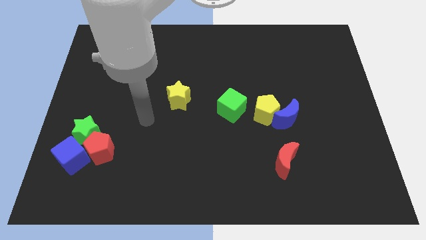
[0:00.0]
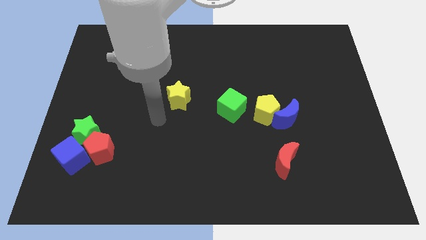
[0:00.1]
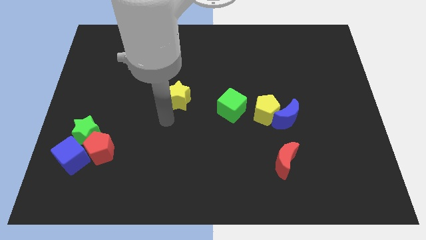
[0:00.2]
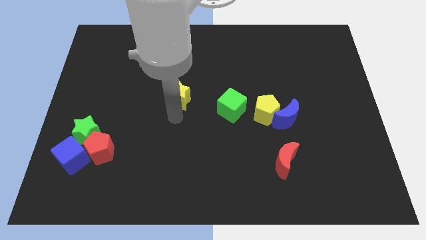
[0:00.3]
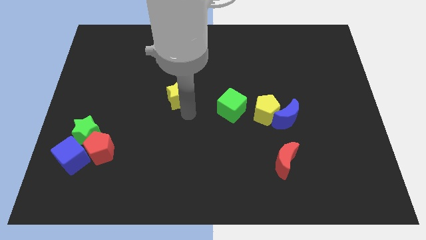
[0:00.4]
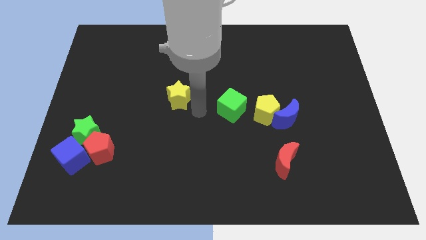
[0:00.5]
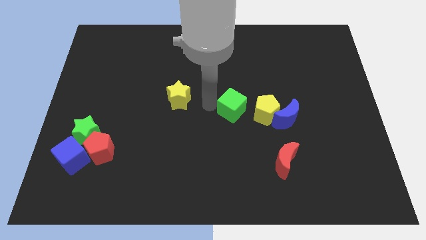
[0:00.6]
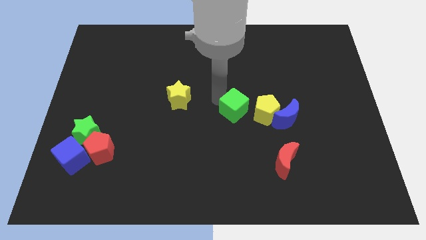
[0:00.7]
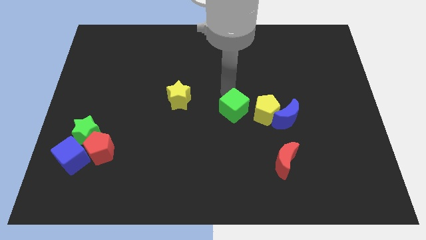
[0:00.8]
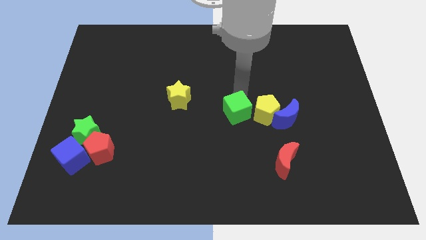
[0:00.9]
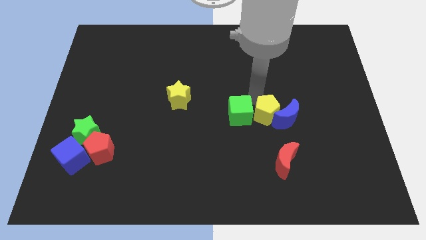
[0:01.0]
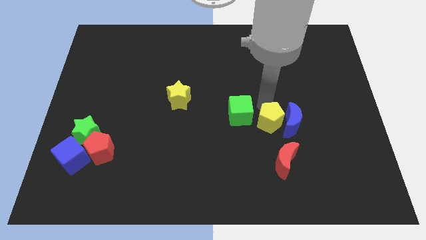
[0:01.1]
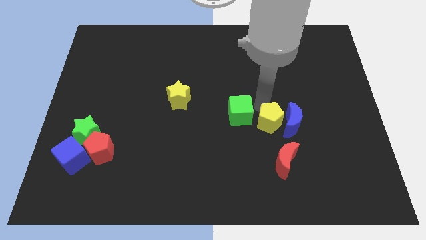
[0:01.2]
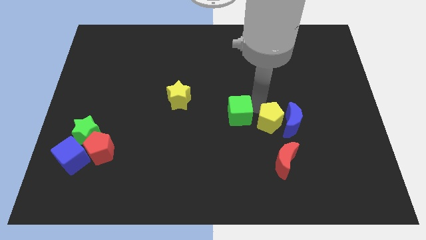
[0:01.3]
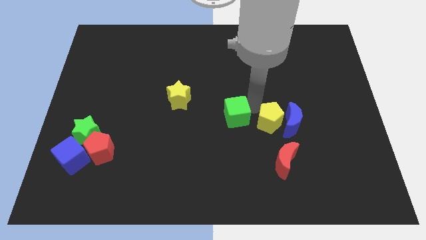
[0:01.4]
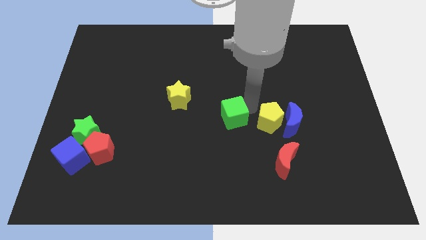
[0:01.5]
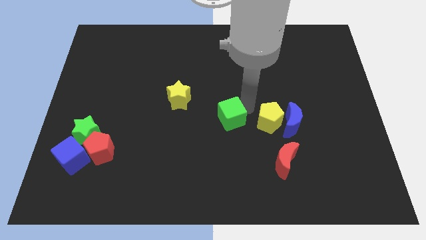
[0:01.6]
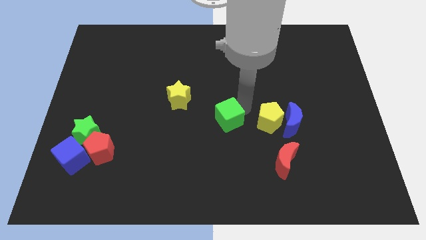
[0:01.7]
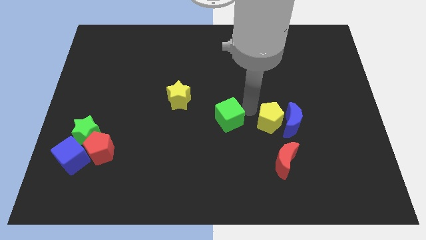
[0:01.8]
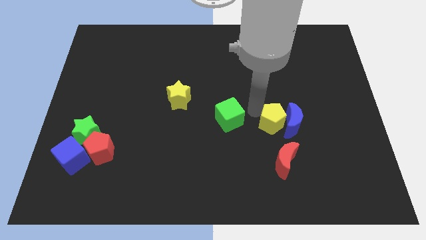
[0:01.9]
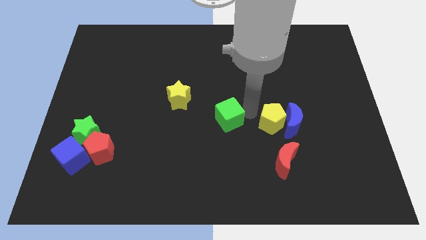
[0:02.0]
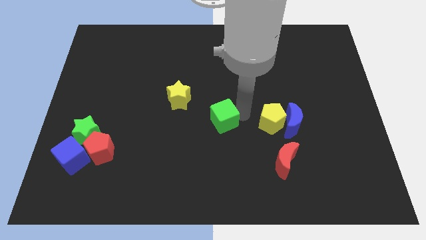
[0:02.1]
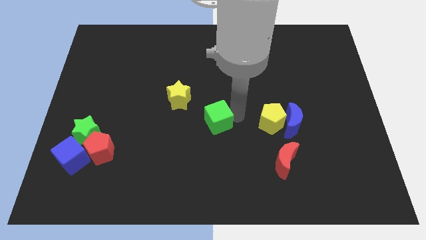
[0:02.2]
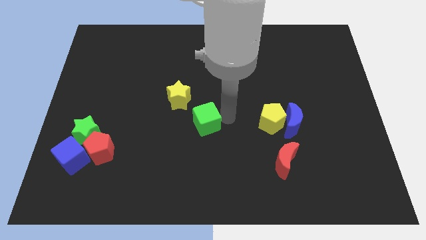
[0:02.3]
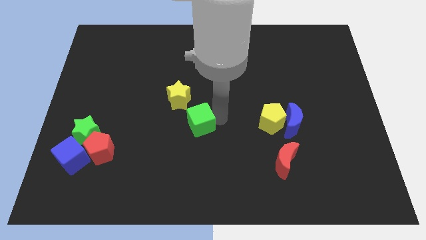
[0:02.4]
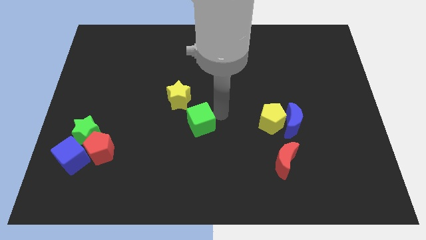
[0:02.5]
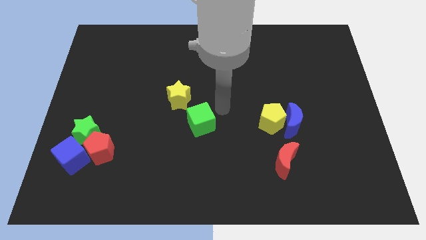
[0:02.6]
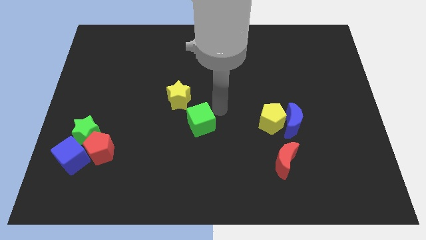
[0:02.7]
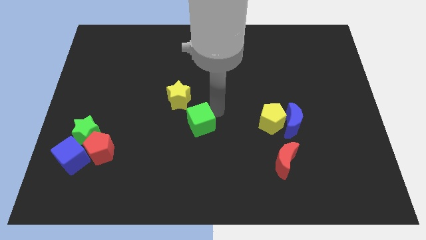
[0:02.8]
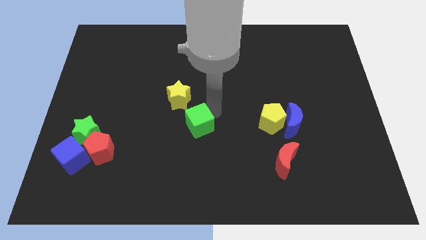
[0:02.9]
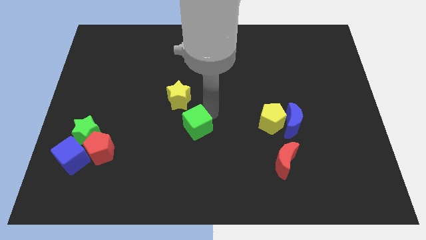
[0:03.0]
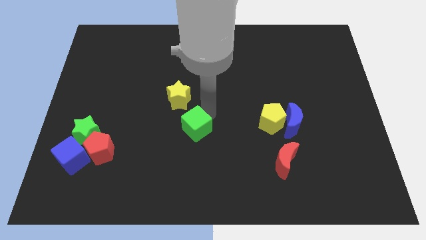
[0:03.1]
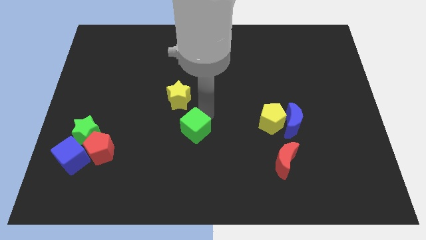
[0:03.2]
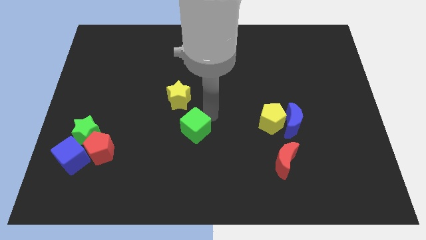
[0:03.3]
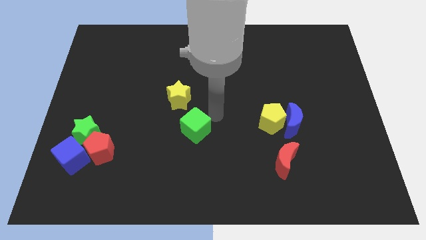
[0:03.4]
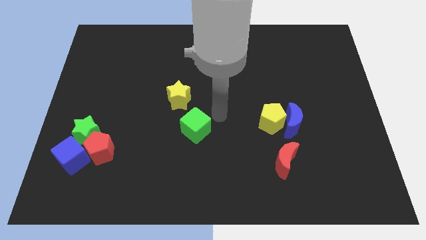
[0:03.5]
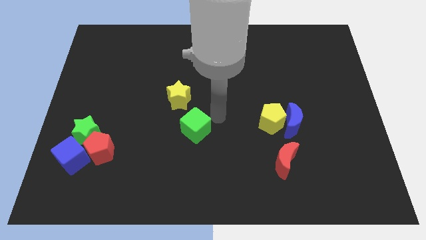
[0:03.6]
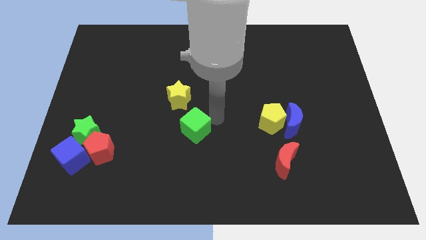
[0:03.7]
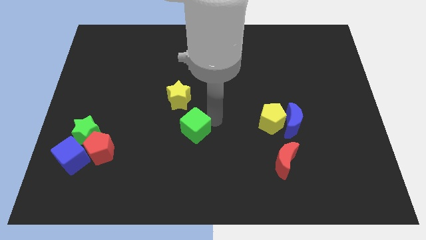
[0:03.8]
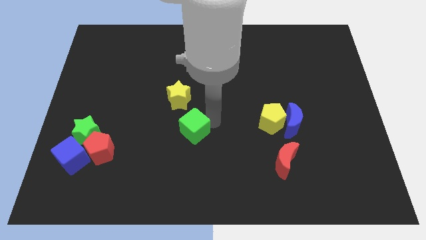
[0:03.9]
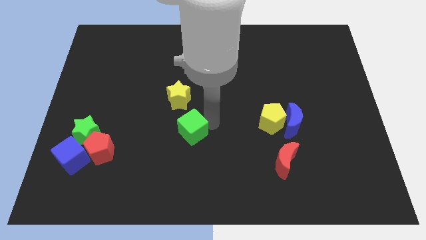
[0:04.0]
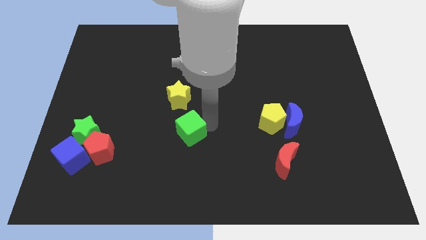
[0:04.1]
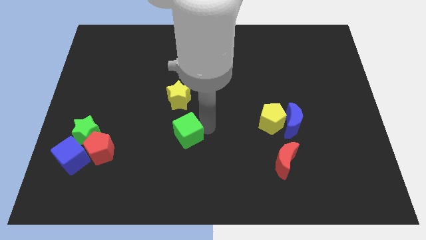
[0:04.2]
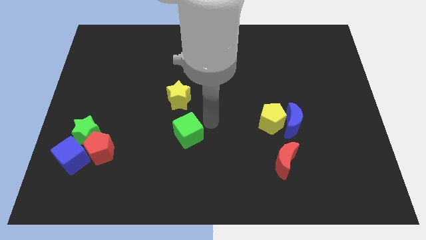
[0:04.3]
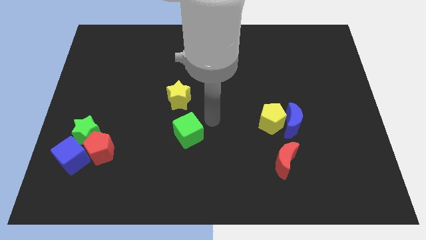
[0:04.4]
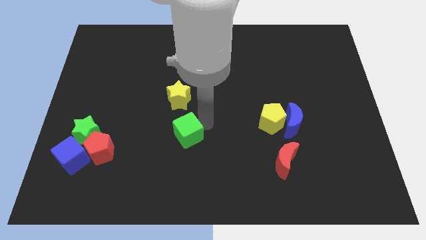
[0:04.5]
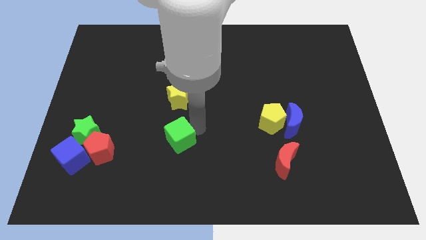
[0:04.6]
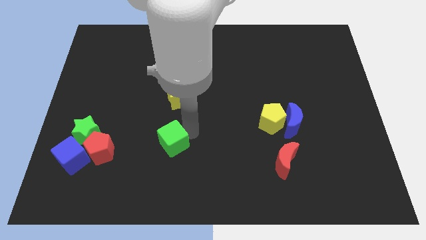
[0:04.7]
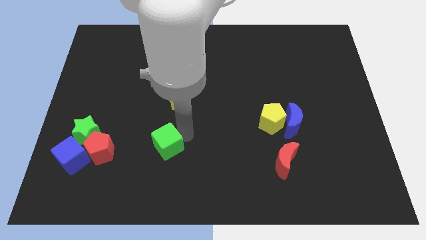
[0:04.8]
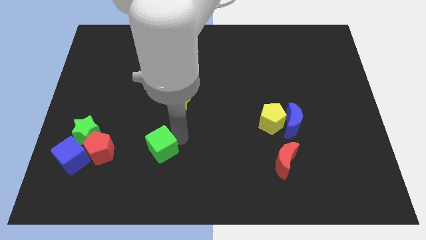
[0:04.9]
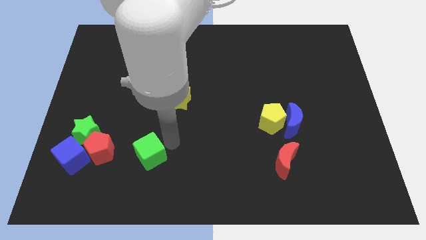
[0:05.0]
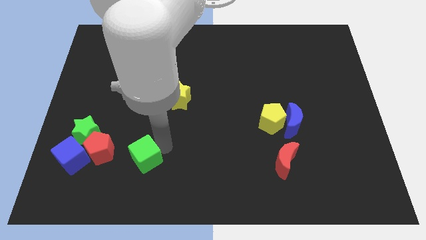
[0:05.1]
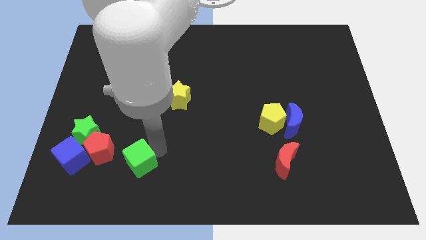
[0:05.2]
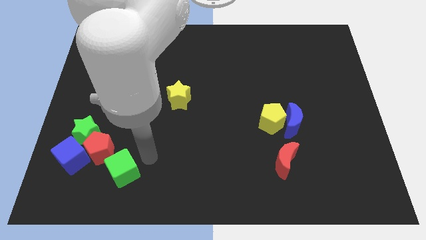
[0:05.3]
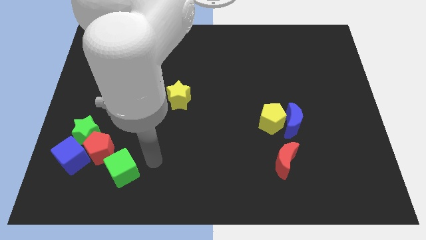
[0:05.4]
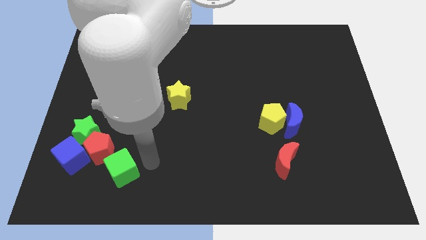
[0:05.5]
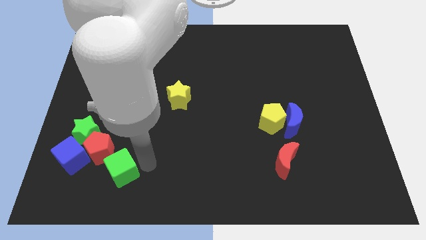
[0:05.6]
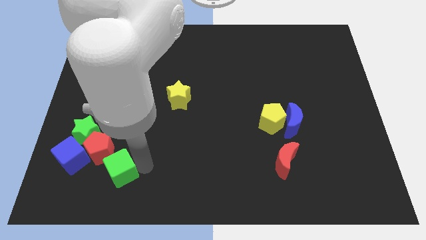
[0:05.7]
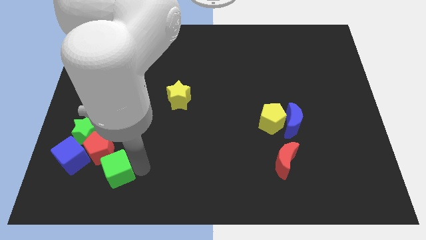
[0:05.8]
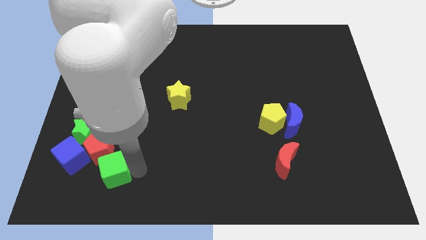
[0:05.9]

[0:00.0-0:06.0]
slide the green cube to the bottom right side of the blue cube

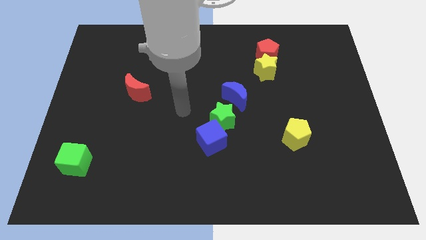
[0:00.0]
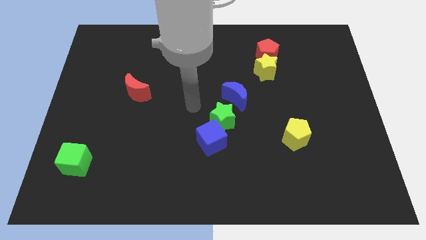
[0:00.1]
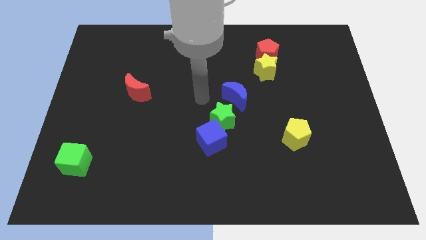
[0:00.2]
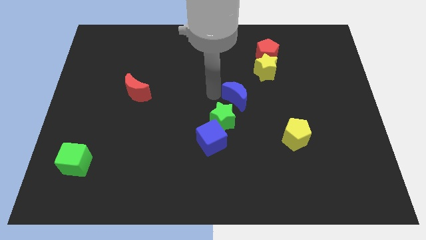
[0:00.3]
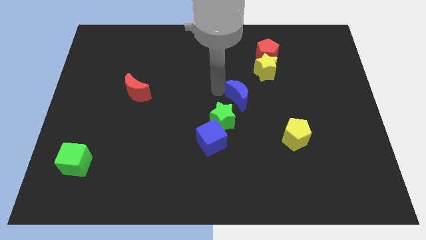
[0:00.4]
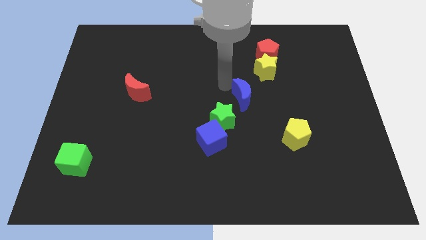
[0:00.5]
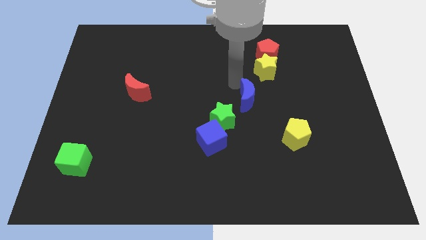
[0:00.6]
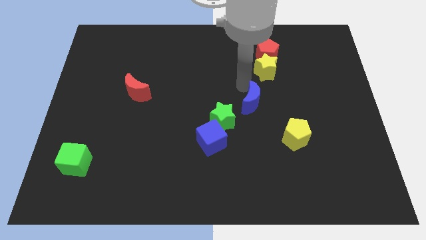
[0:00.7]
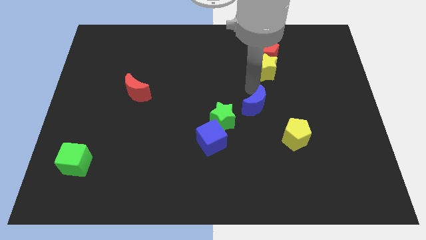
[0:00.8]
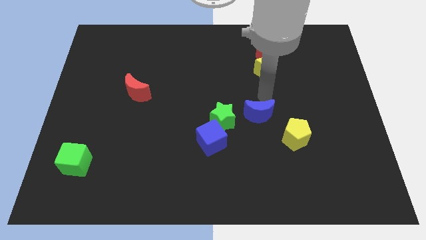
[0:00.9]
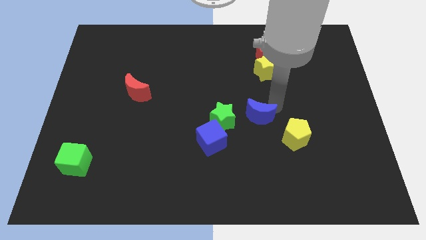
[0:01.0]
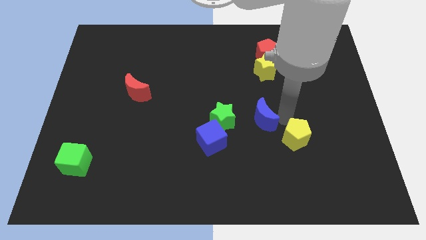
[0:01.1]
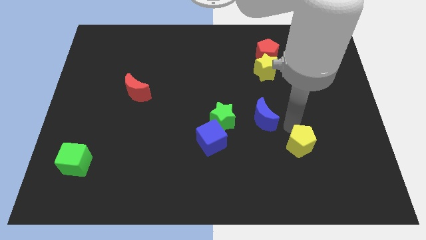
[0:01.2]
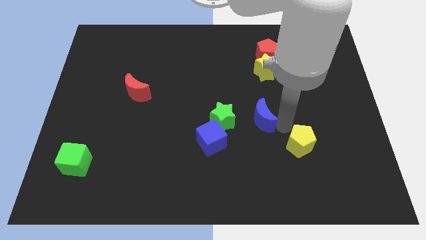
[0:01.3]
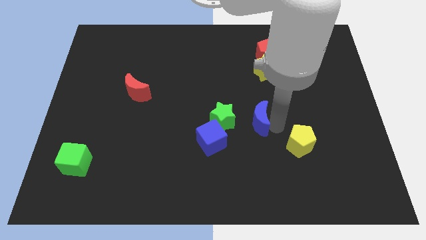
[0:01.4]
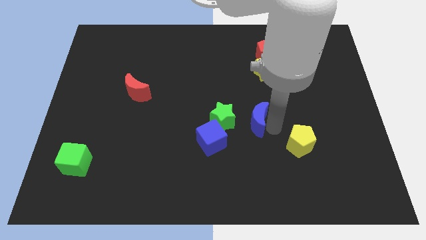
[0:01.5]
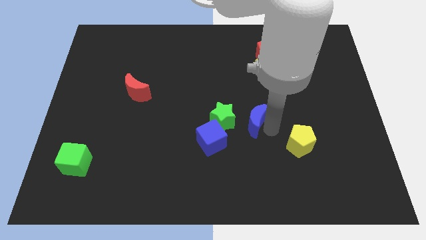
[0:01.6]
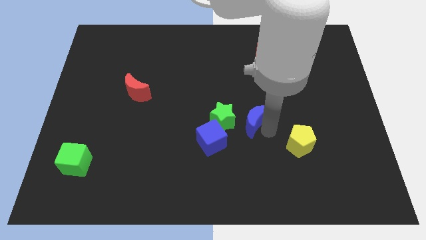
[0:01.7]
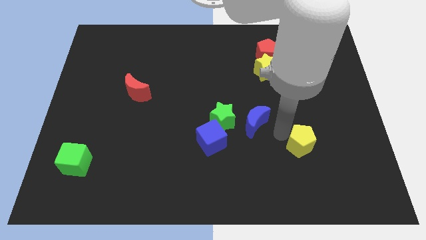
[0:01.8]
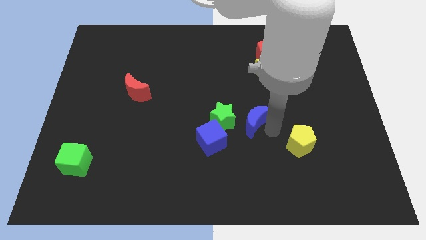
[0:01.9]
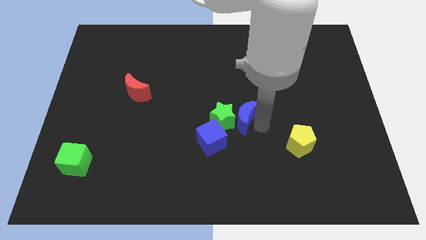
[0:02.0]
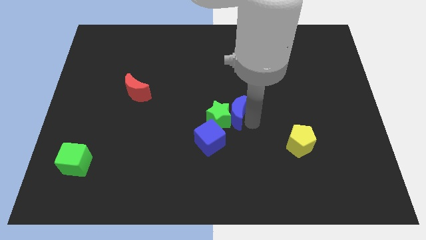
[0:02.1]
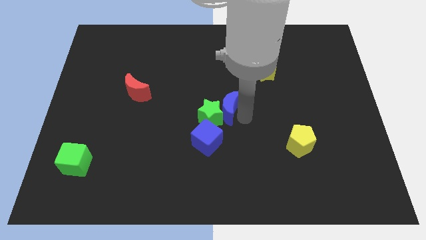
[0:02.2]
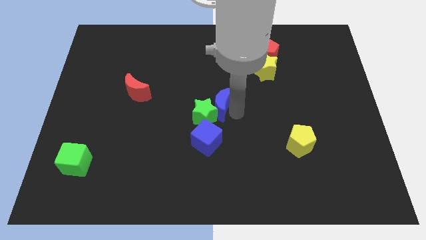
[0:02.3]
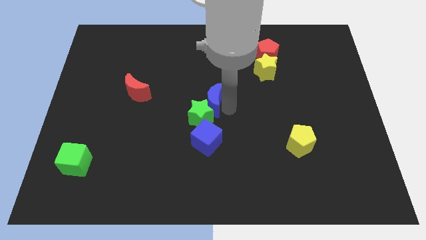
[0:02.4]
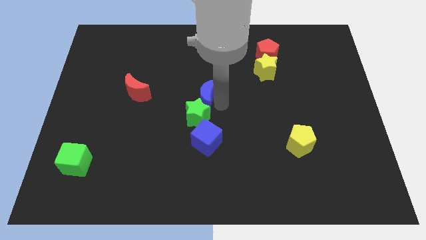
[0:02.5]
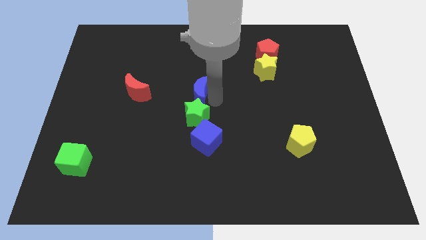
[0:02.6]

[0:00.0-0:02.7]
slide the blue moon to the top left side of the green star
